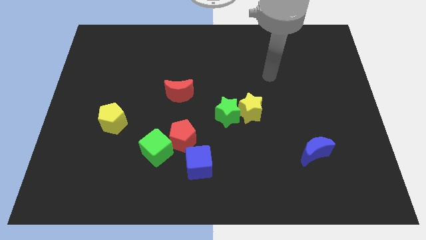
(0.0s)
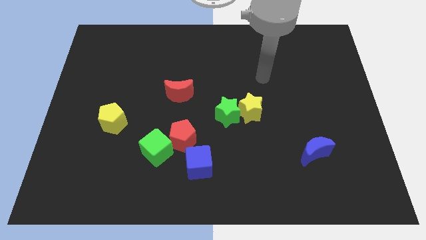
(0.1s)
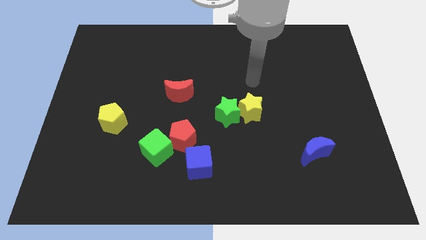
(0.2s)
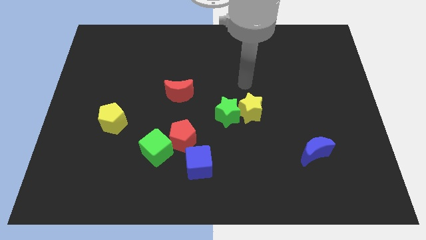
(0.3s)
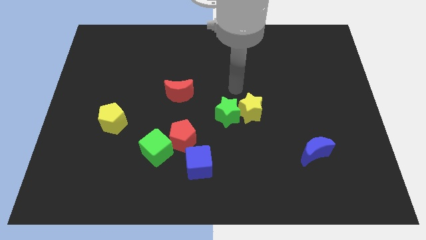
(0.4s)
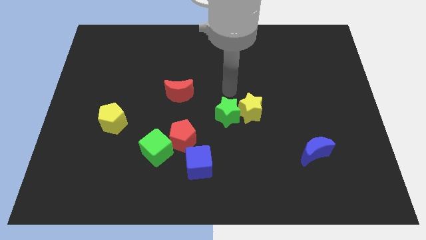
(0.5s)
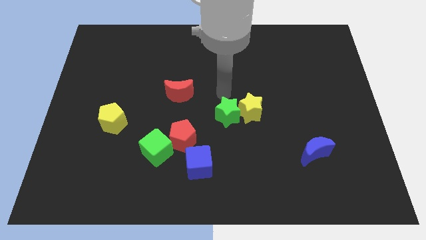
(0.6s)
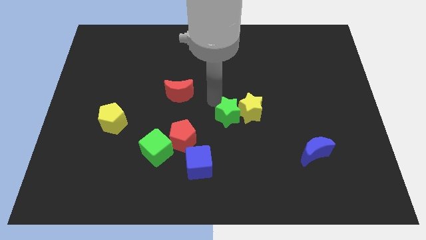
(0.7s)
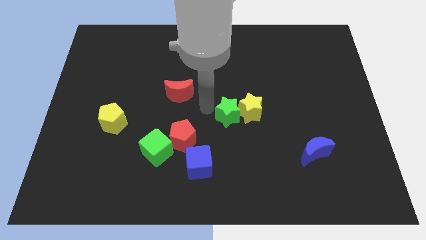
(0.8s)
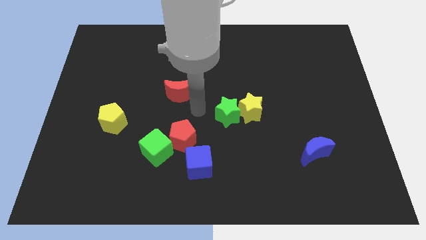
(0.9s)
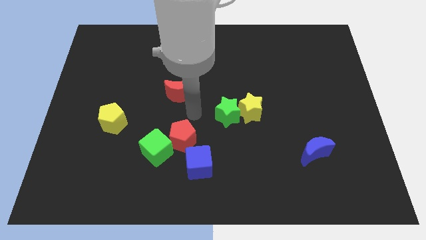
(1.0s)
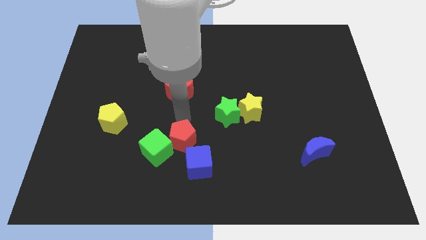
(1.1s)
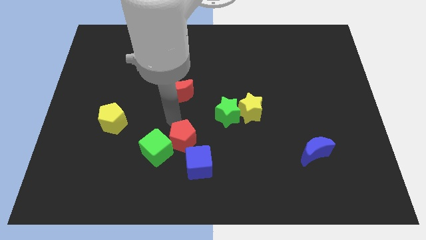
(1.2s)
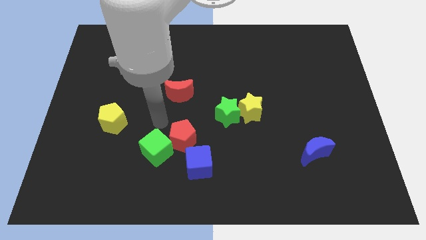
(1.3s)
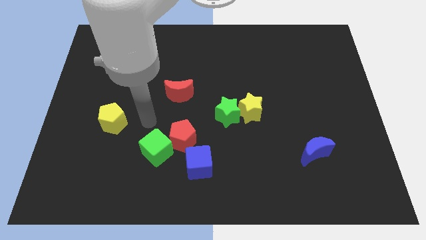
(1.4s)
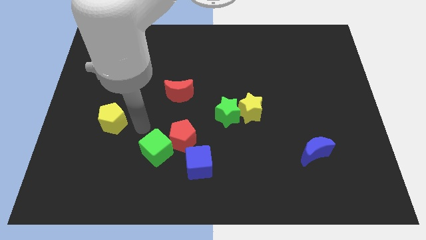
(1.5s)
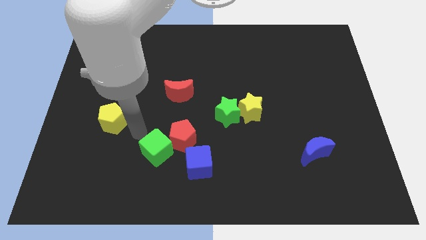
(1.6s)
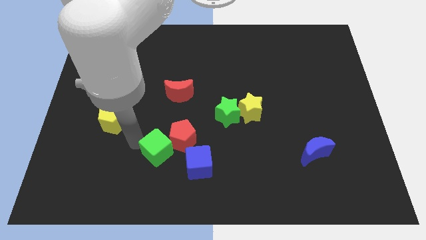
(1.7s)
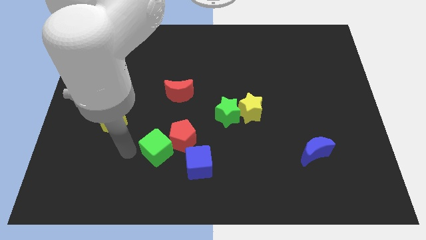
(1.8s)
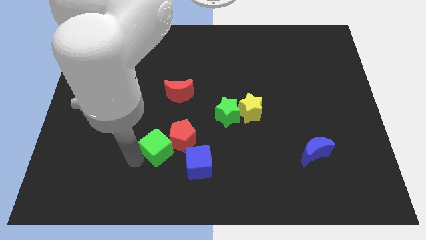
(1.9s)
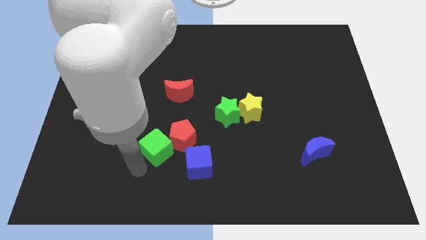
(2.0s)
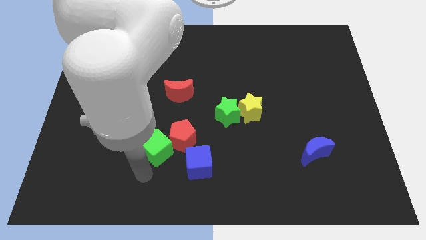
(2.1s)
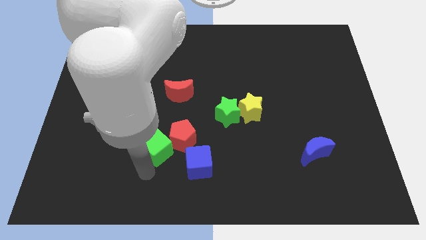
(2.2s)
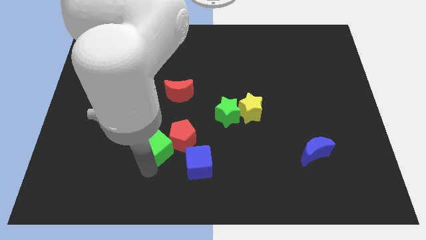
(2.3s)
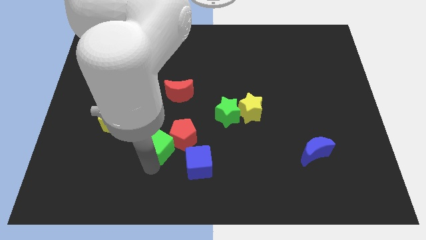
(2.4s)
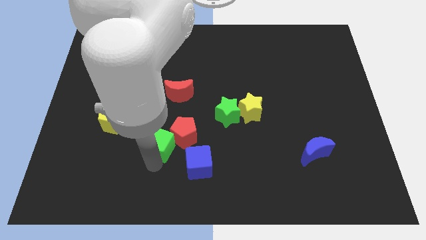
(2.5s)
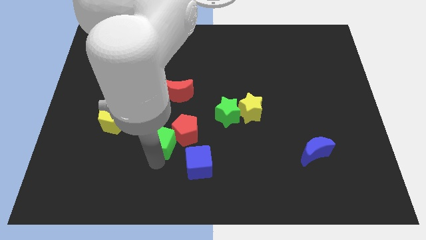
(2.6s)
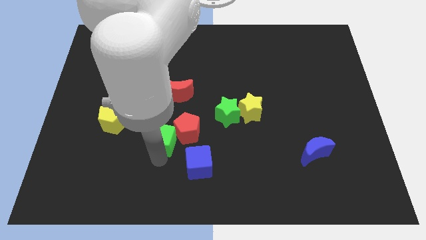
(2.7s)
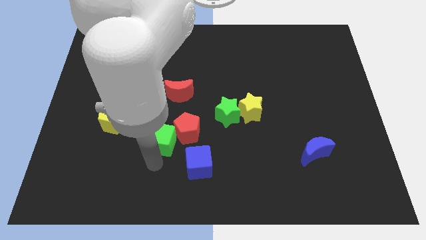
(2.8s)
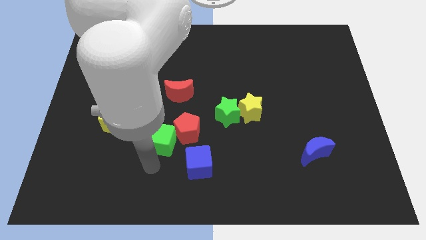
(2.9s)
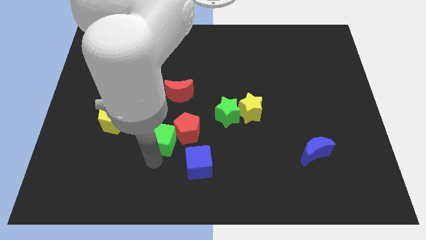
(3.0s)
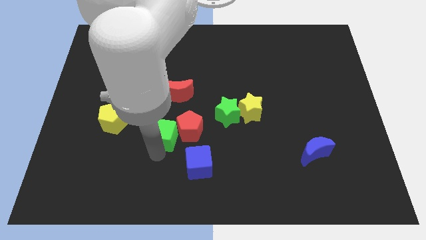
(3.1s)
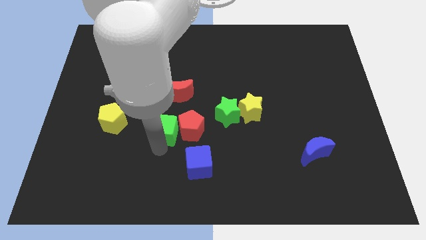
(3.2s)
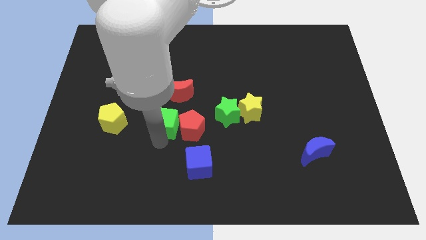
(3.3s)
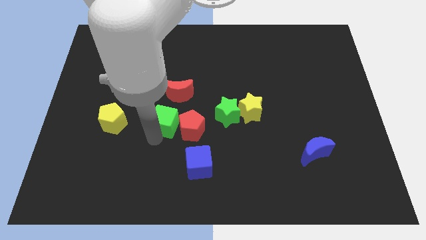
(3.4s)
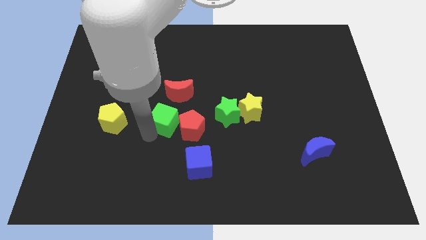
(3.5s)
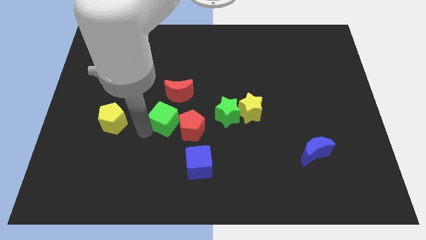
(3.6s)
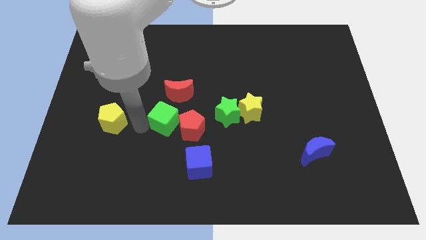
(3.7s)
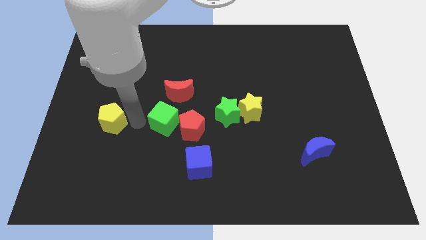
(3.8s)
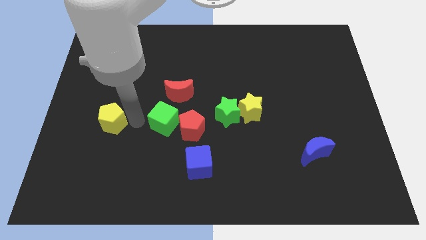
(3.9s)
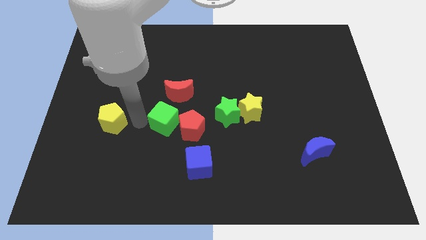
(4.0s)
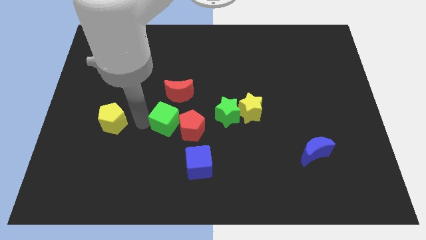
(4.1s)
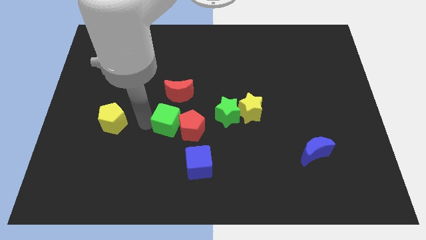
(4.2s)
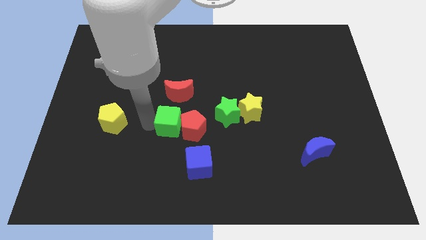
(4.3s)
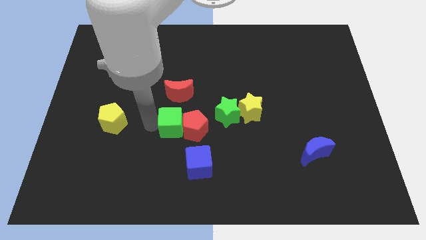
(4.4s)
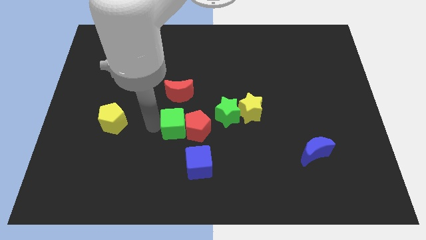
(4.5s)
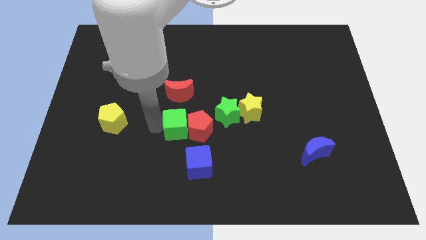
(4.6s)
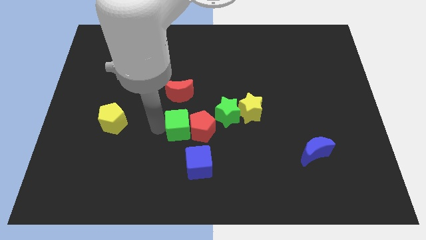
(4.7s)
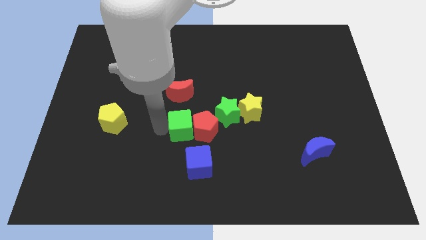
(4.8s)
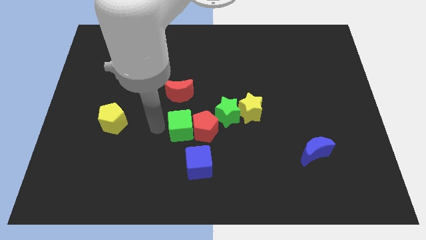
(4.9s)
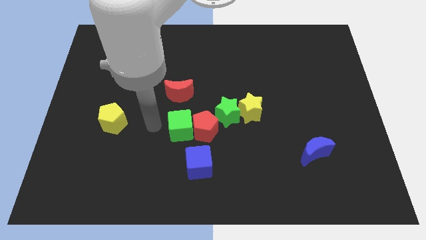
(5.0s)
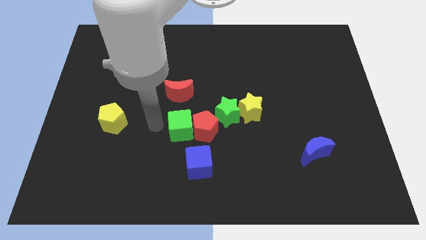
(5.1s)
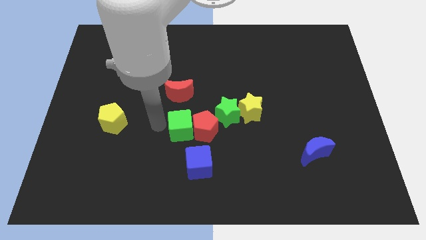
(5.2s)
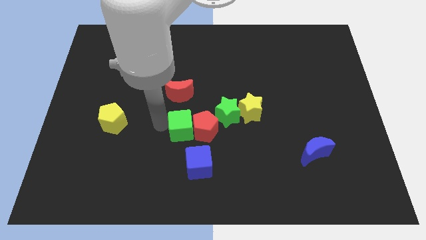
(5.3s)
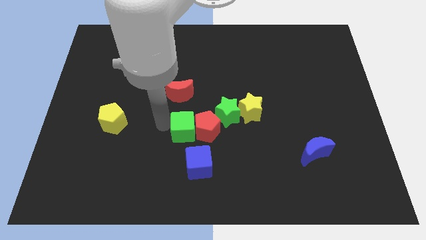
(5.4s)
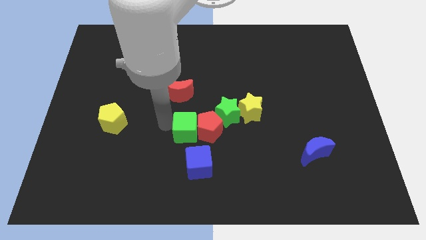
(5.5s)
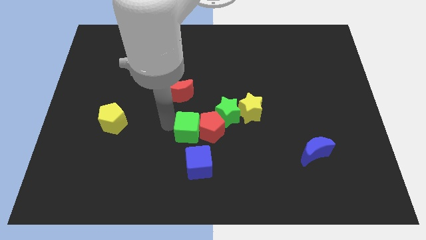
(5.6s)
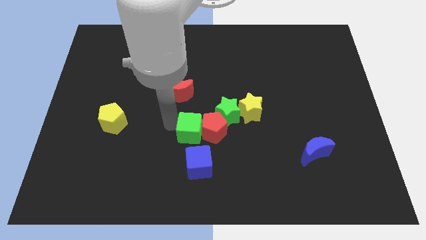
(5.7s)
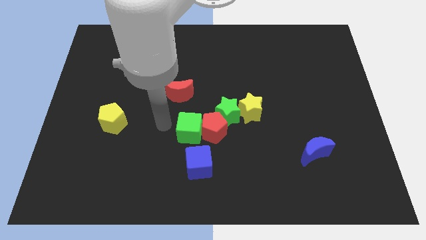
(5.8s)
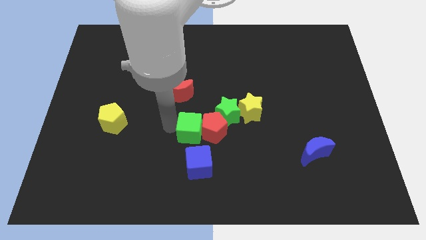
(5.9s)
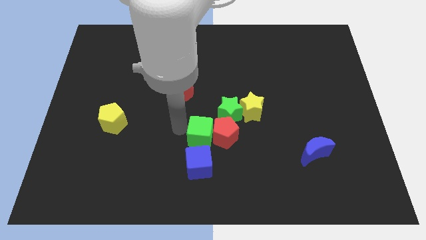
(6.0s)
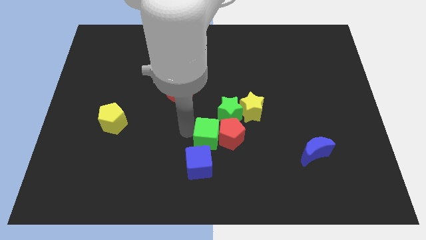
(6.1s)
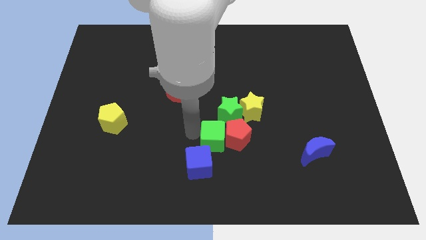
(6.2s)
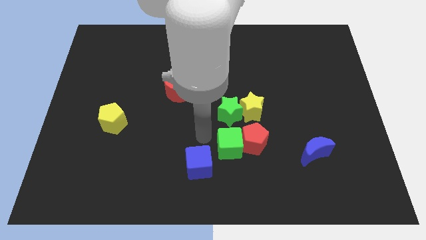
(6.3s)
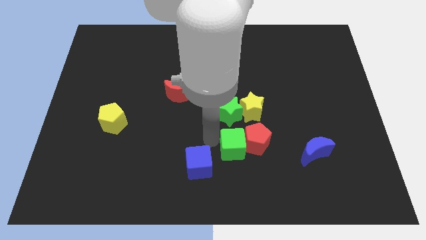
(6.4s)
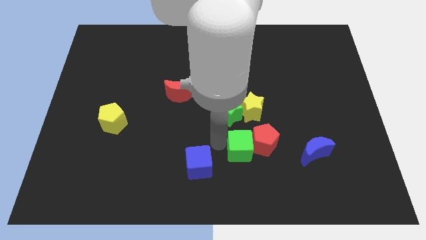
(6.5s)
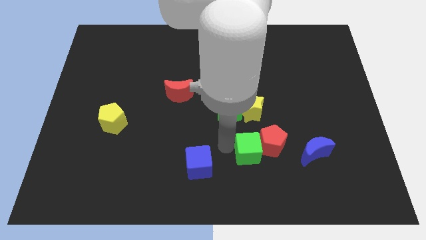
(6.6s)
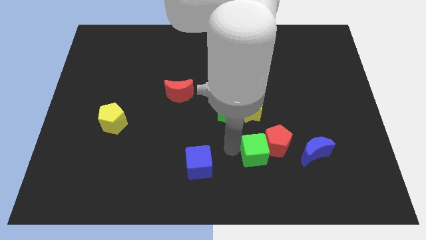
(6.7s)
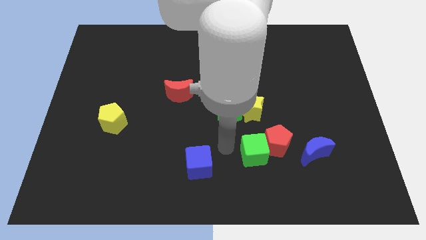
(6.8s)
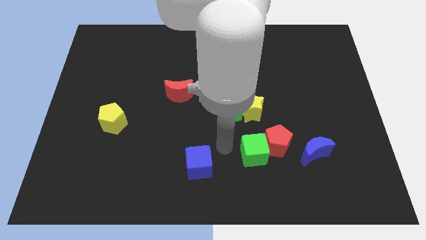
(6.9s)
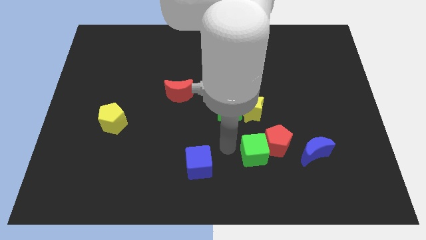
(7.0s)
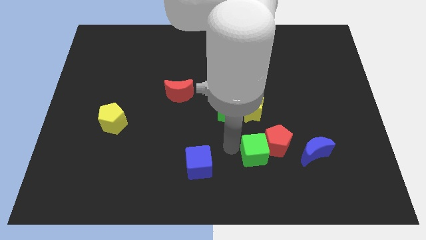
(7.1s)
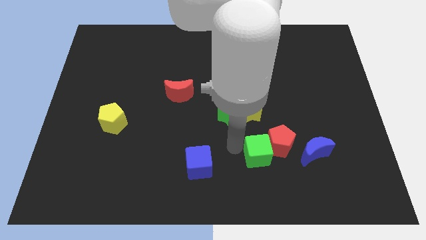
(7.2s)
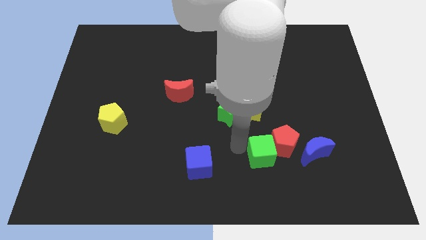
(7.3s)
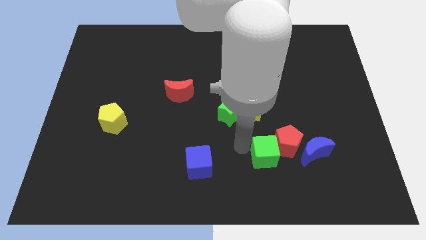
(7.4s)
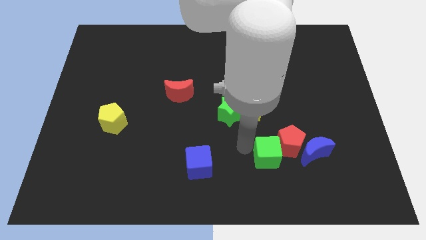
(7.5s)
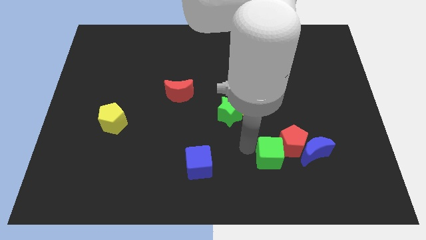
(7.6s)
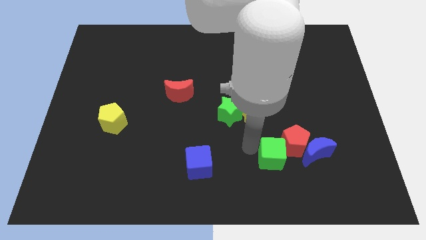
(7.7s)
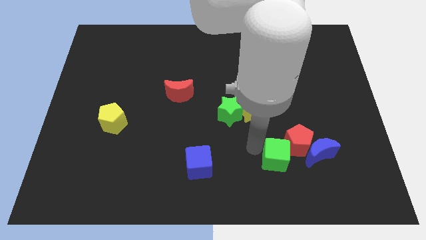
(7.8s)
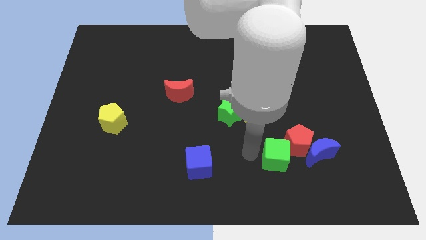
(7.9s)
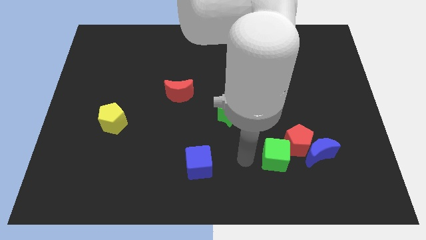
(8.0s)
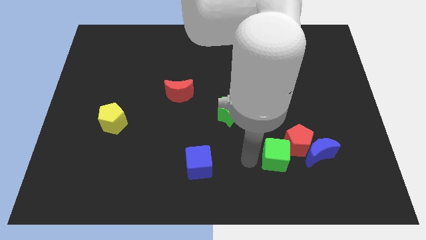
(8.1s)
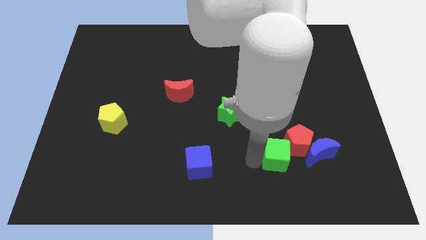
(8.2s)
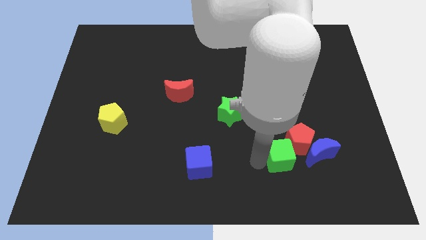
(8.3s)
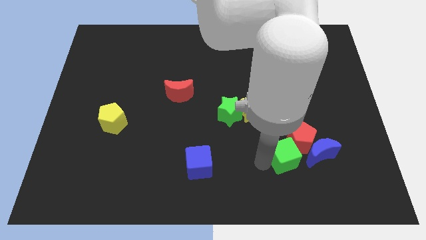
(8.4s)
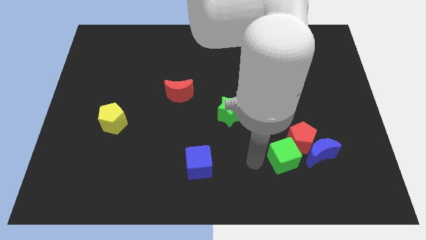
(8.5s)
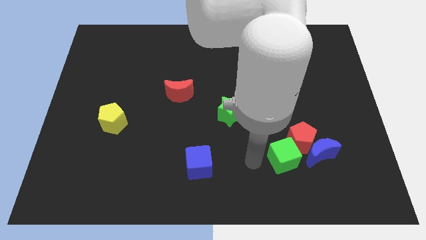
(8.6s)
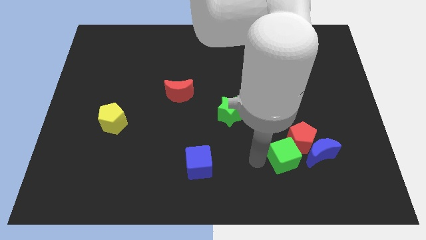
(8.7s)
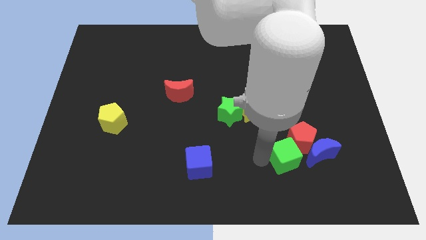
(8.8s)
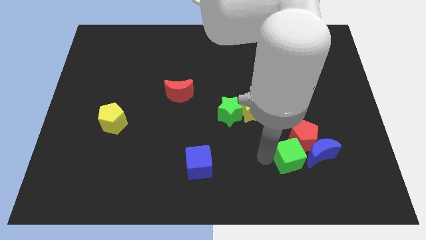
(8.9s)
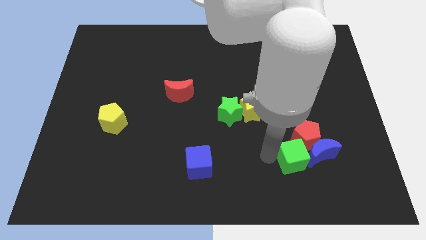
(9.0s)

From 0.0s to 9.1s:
slide the green cube to the blue moon
